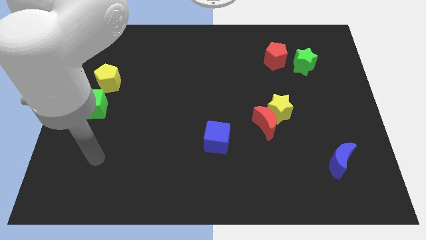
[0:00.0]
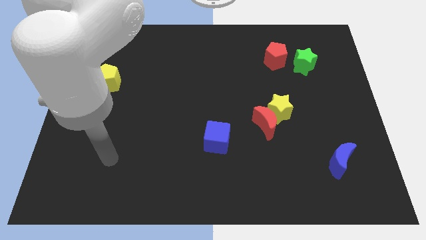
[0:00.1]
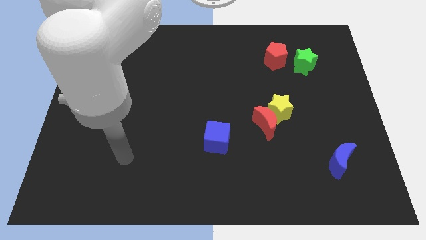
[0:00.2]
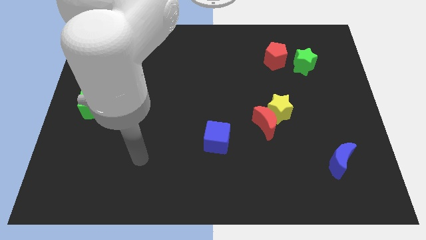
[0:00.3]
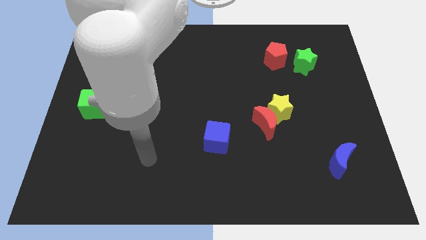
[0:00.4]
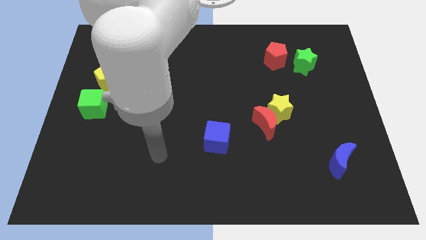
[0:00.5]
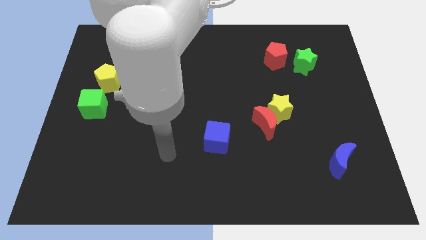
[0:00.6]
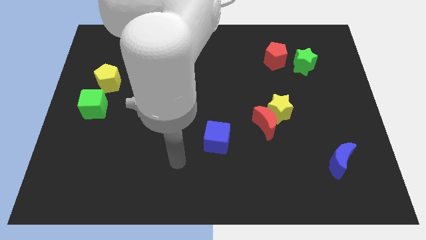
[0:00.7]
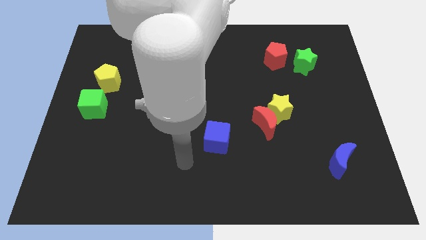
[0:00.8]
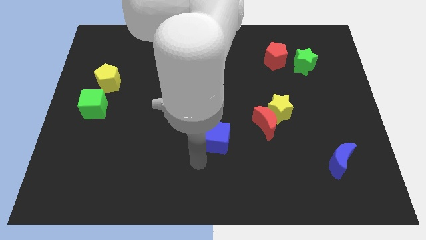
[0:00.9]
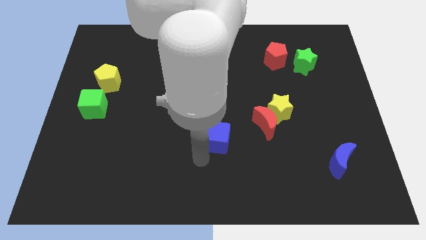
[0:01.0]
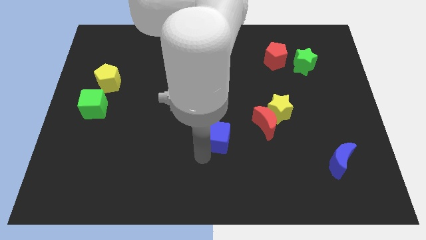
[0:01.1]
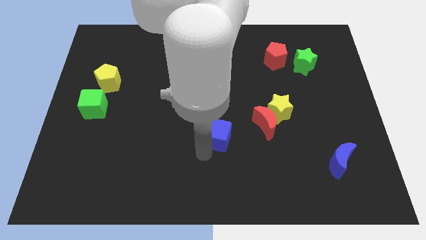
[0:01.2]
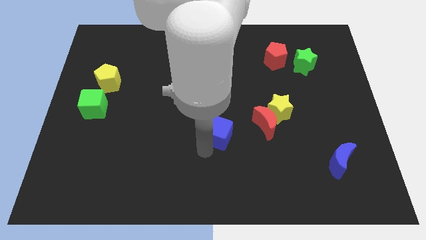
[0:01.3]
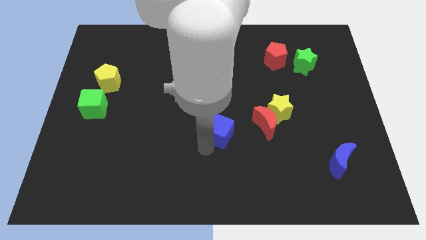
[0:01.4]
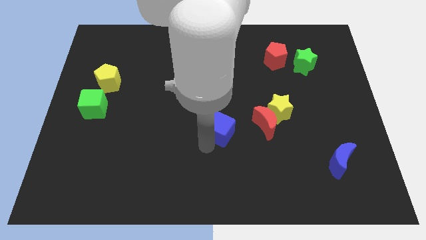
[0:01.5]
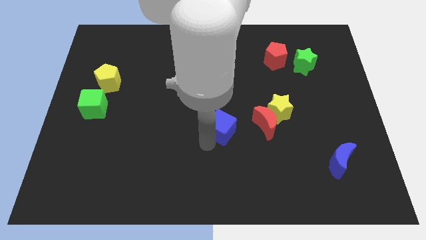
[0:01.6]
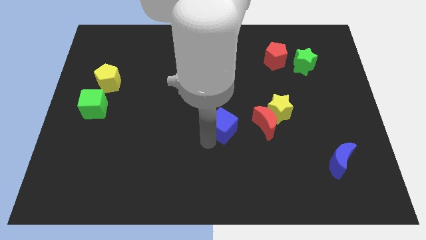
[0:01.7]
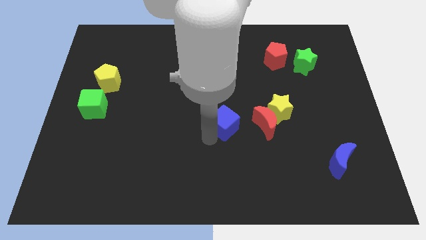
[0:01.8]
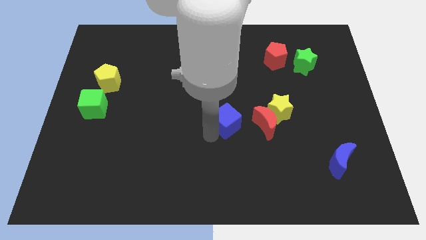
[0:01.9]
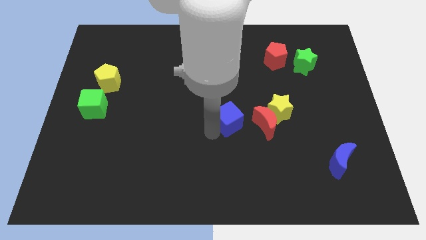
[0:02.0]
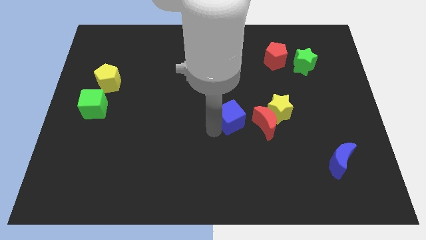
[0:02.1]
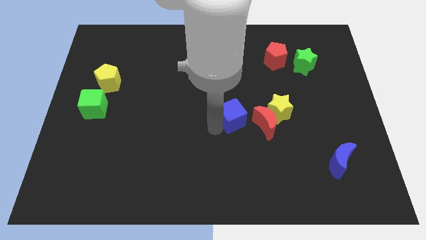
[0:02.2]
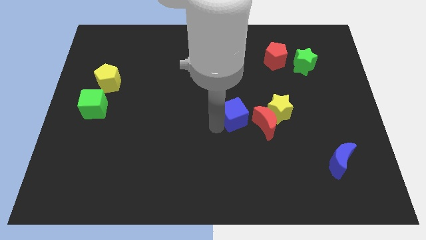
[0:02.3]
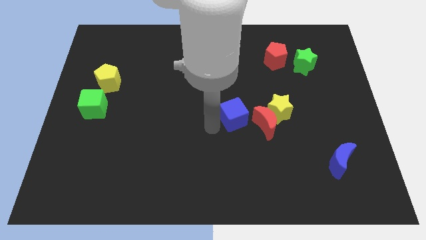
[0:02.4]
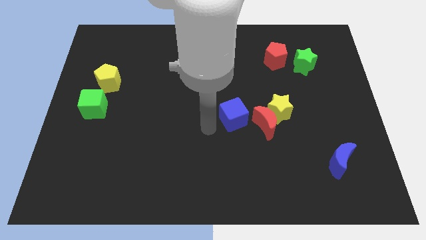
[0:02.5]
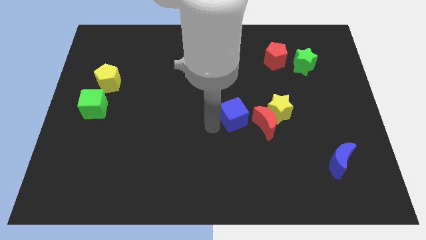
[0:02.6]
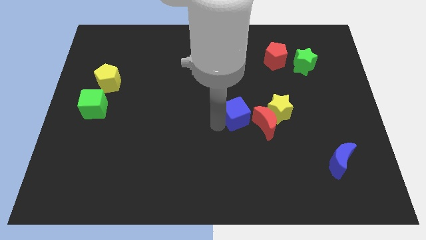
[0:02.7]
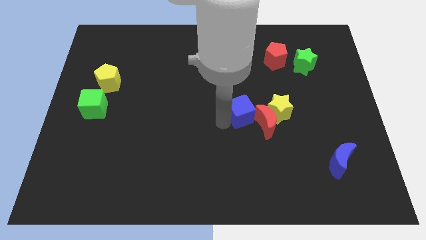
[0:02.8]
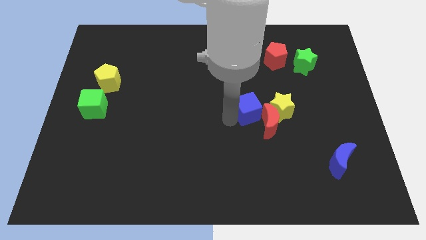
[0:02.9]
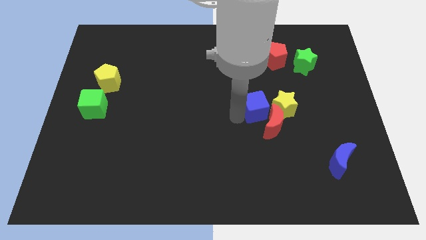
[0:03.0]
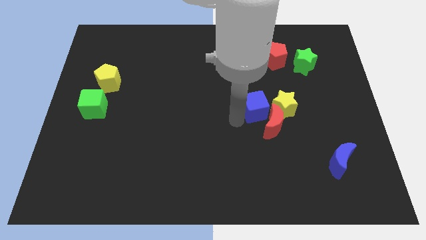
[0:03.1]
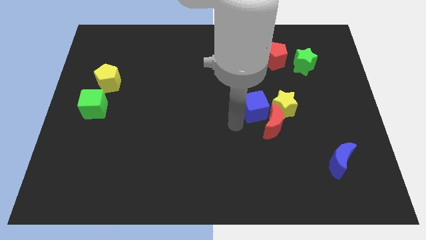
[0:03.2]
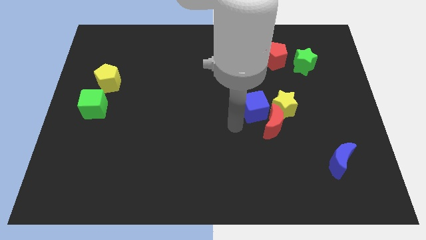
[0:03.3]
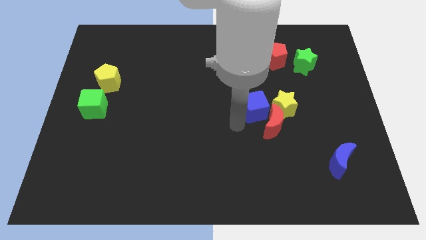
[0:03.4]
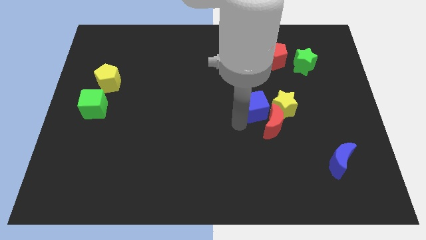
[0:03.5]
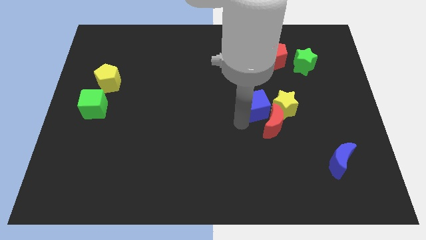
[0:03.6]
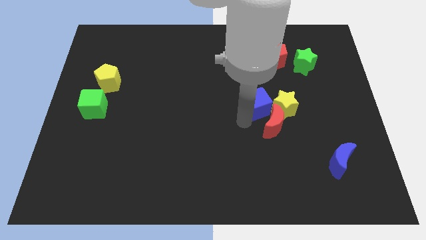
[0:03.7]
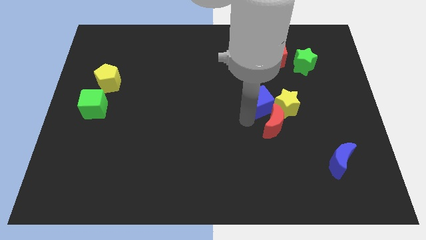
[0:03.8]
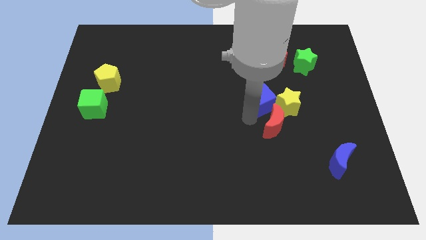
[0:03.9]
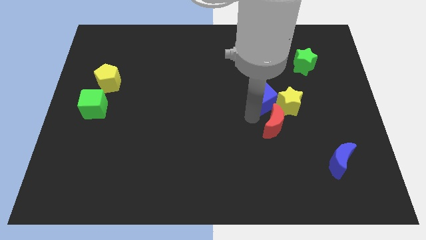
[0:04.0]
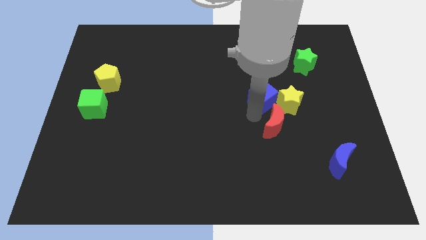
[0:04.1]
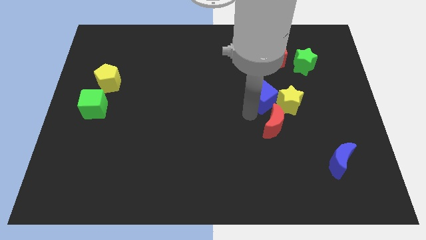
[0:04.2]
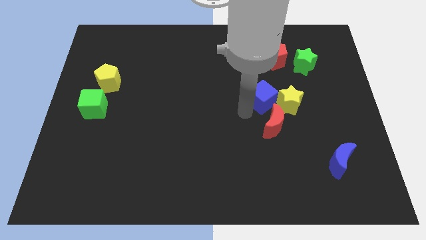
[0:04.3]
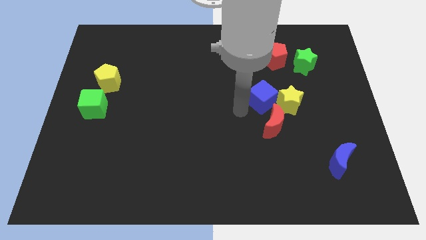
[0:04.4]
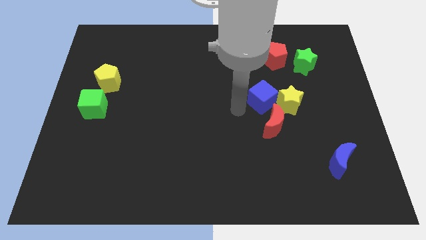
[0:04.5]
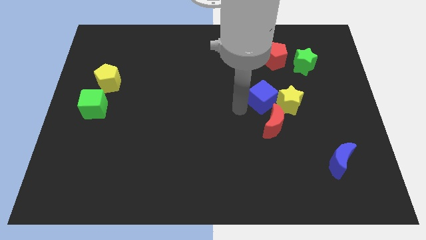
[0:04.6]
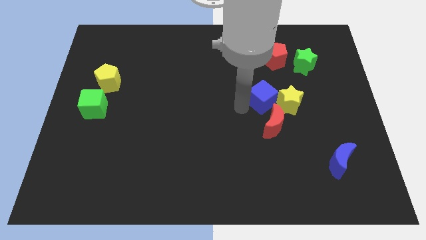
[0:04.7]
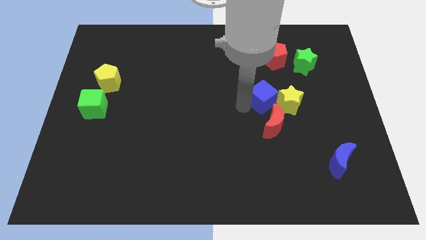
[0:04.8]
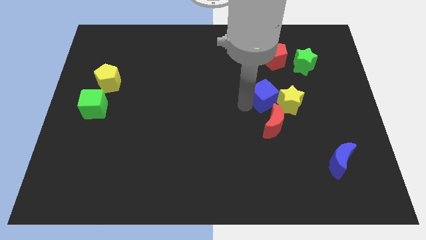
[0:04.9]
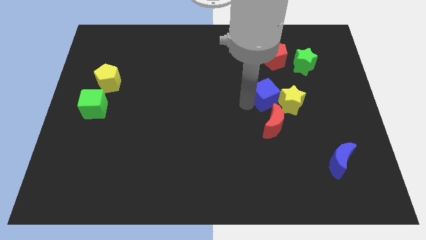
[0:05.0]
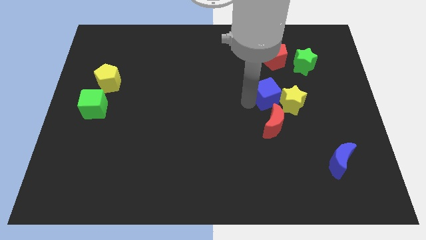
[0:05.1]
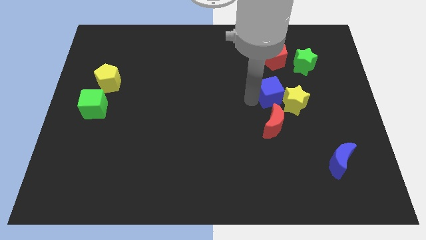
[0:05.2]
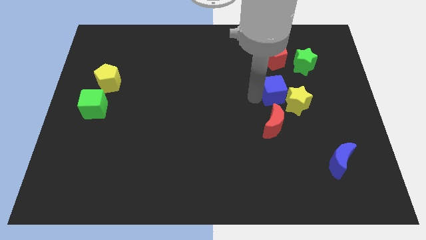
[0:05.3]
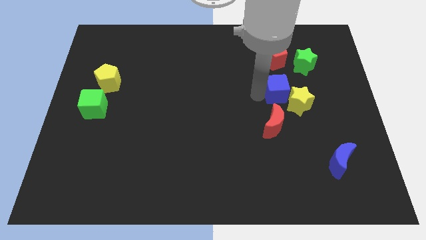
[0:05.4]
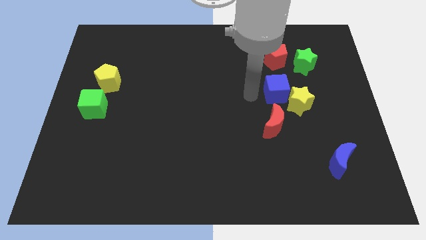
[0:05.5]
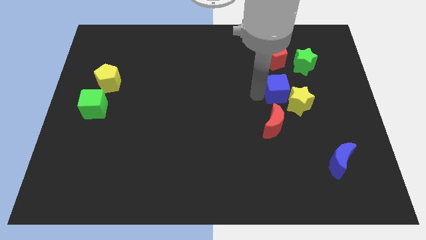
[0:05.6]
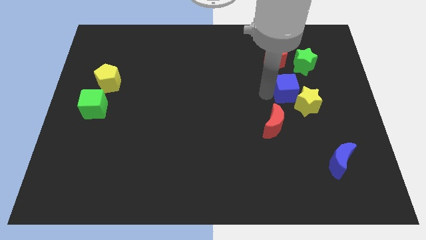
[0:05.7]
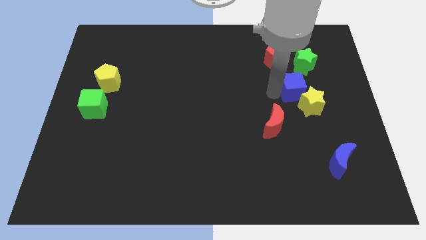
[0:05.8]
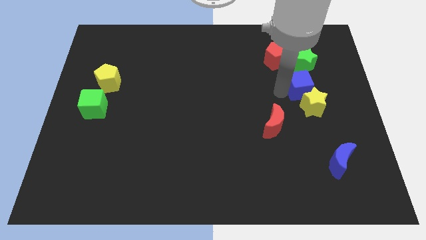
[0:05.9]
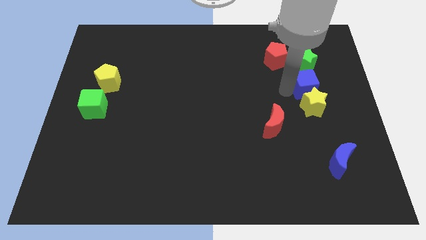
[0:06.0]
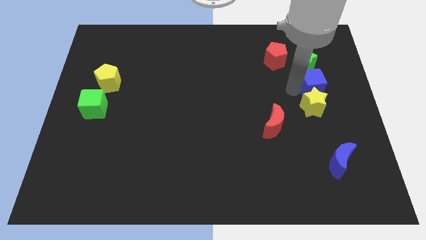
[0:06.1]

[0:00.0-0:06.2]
put the blue cube to the bottom right side of the green star

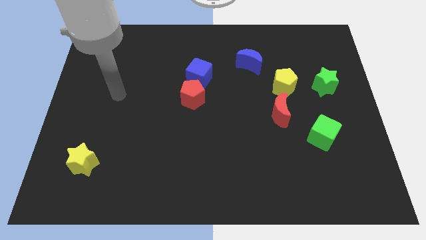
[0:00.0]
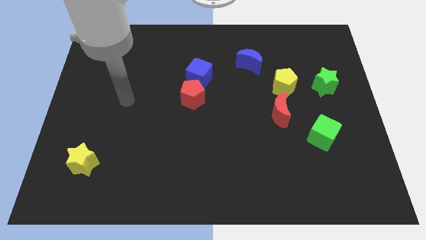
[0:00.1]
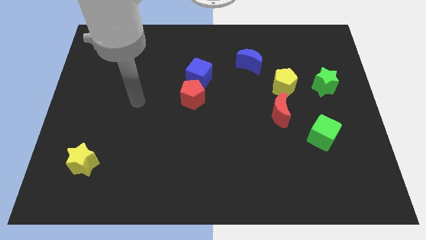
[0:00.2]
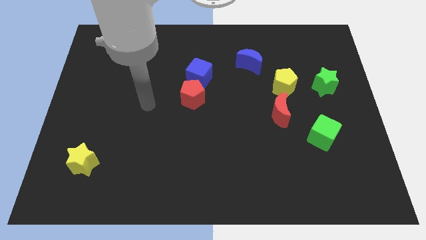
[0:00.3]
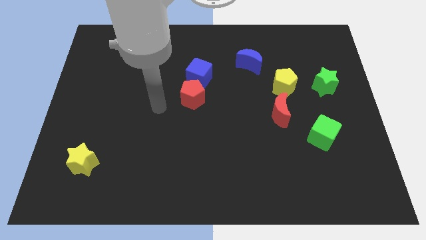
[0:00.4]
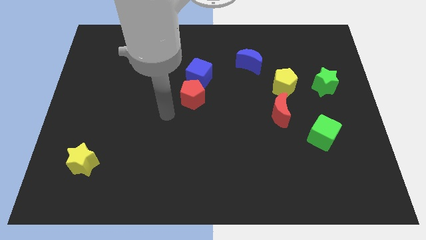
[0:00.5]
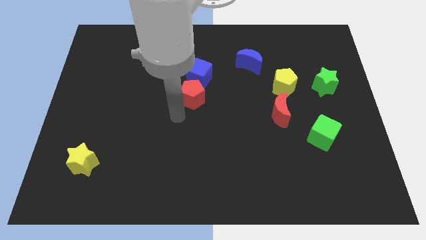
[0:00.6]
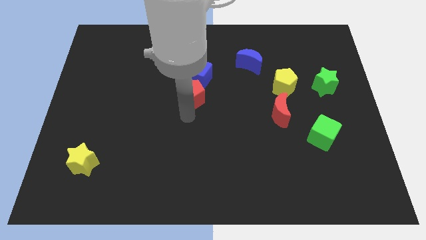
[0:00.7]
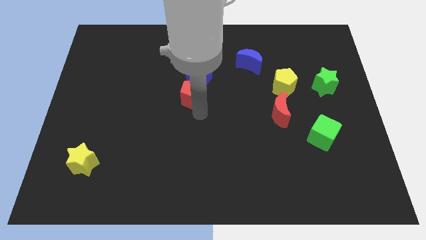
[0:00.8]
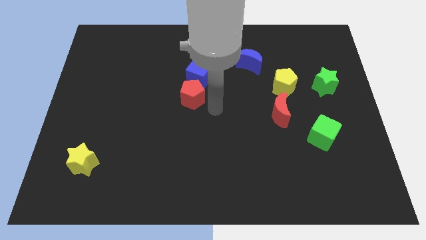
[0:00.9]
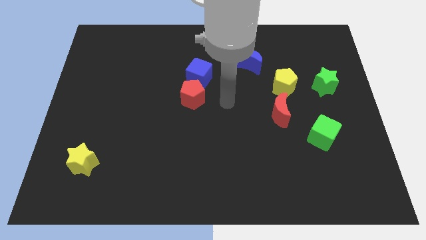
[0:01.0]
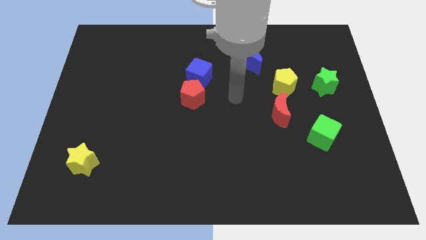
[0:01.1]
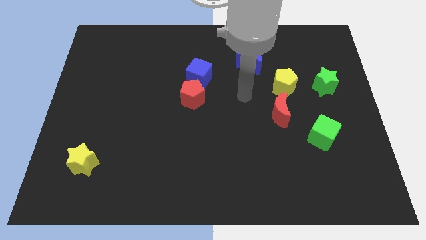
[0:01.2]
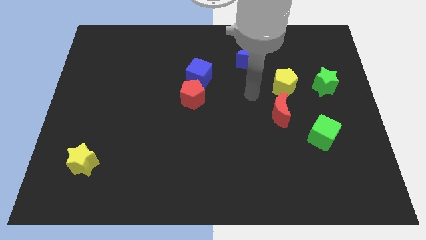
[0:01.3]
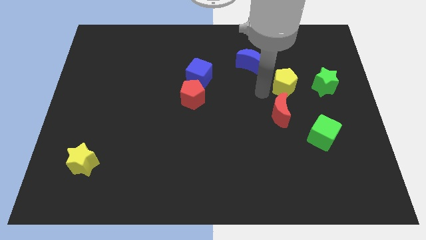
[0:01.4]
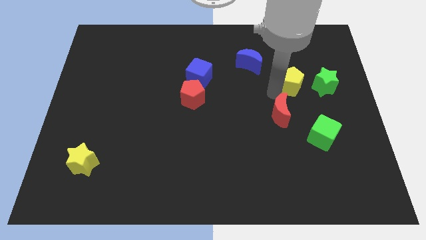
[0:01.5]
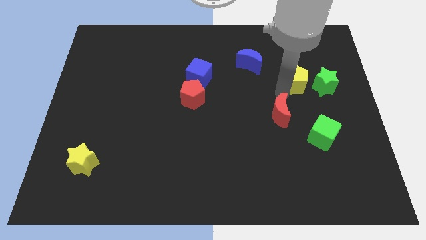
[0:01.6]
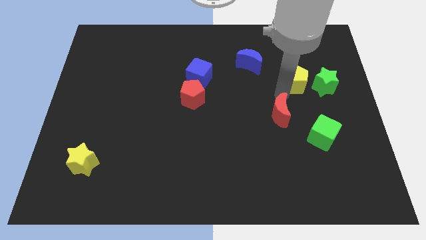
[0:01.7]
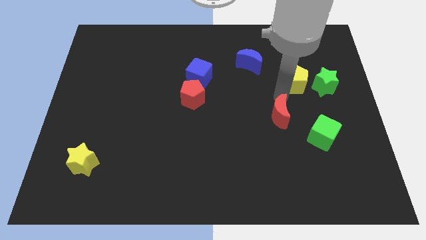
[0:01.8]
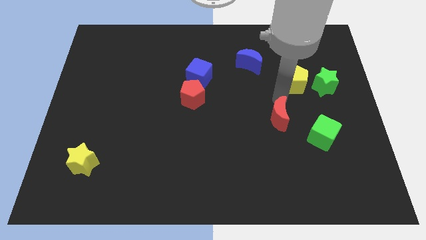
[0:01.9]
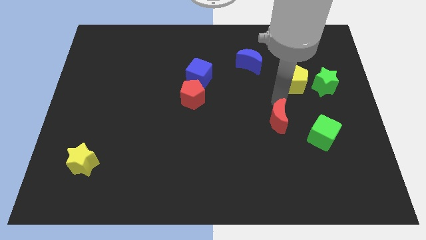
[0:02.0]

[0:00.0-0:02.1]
move the red moon left of the green cube
